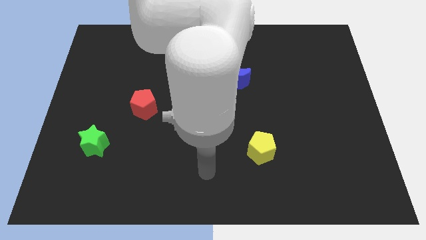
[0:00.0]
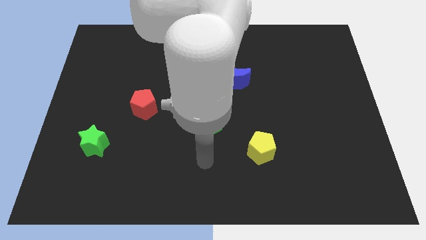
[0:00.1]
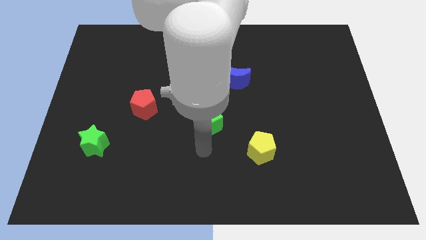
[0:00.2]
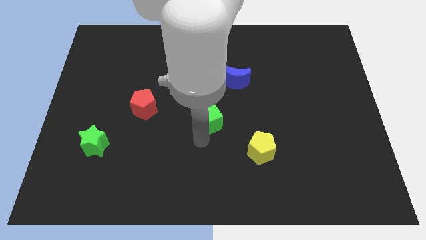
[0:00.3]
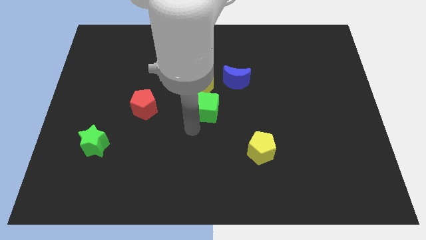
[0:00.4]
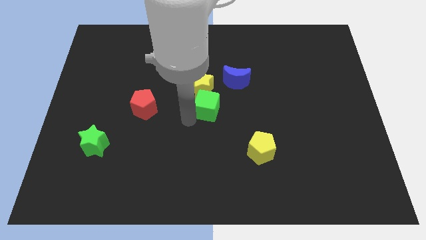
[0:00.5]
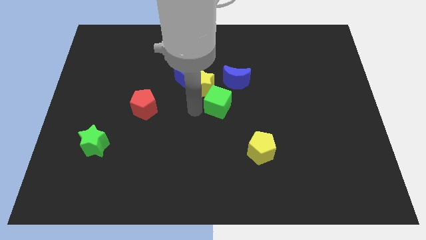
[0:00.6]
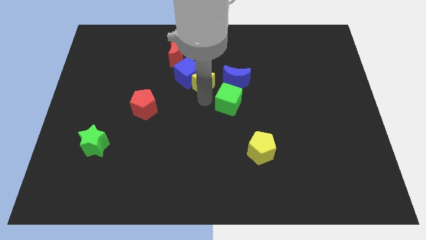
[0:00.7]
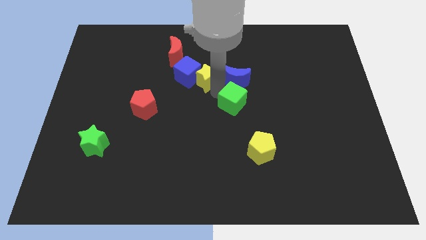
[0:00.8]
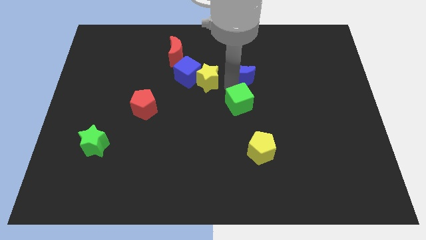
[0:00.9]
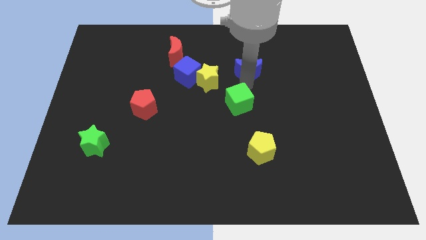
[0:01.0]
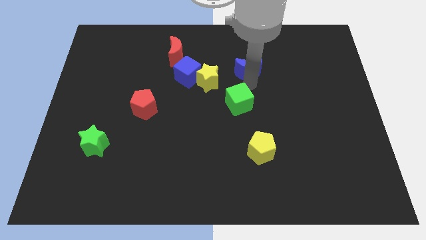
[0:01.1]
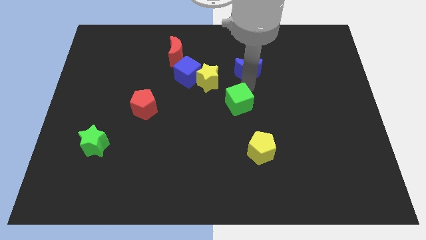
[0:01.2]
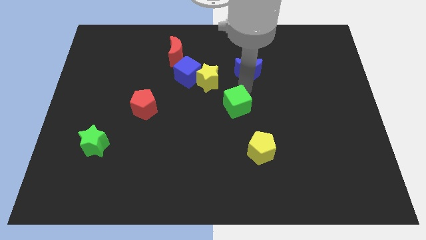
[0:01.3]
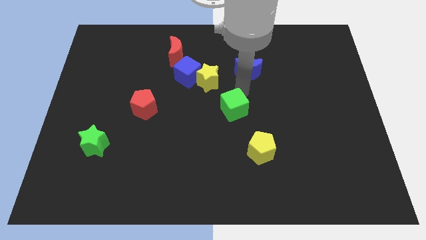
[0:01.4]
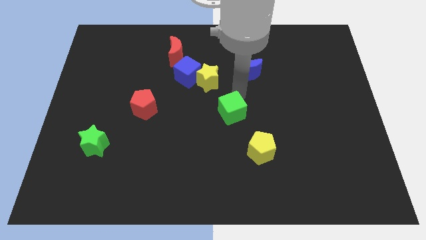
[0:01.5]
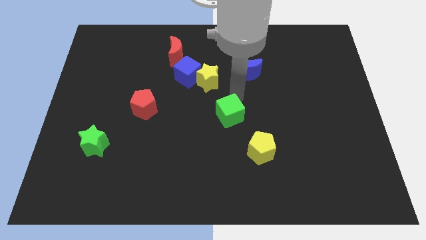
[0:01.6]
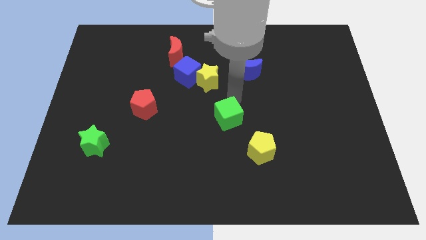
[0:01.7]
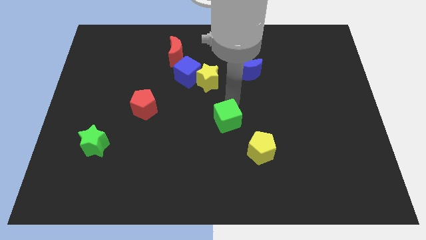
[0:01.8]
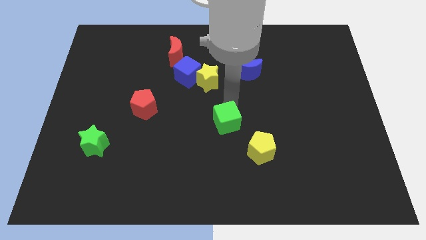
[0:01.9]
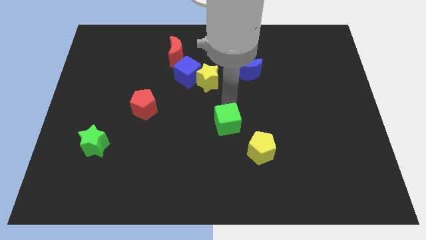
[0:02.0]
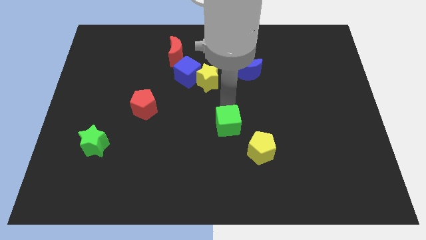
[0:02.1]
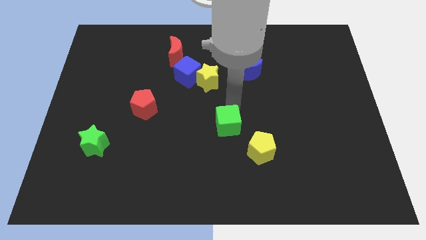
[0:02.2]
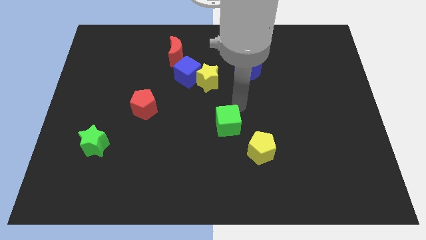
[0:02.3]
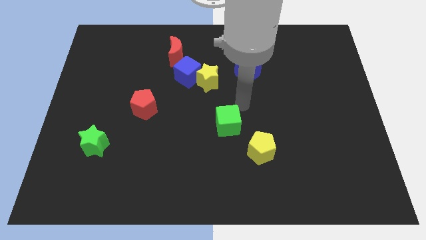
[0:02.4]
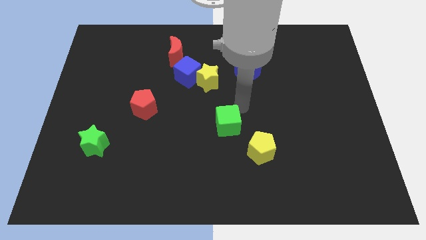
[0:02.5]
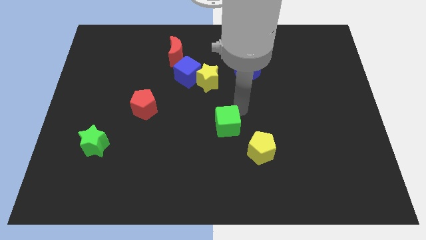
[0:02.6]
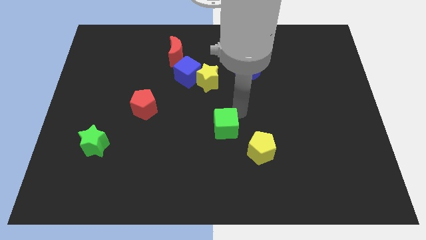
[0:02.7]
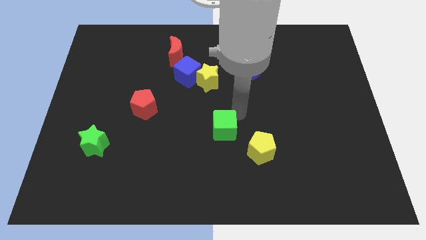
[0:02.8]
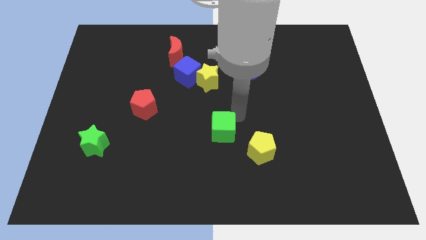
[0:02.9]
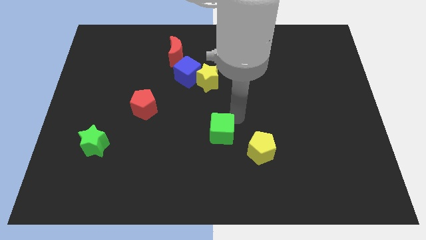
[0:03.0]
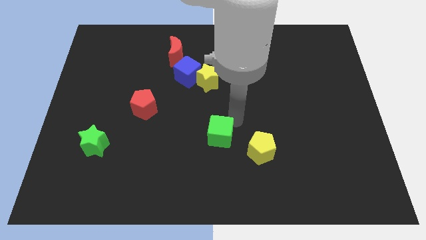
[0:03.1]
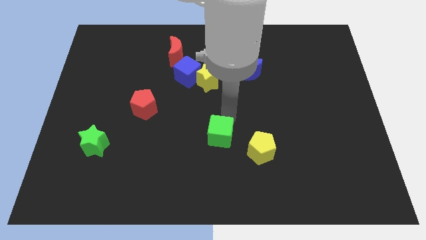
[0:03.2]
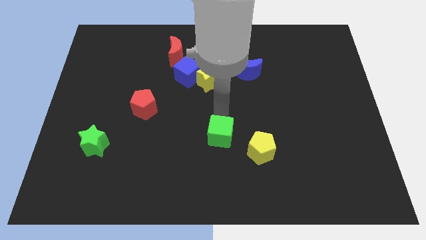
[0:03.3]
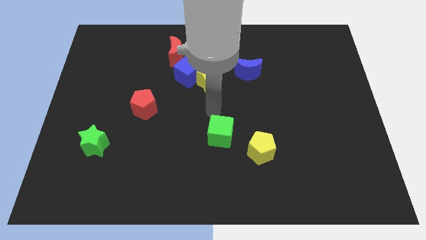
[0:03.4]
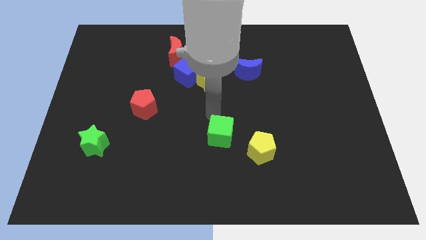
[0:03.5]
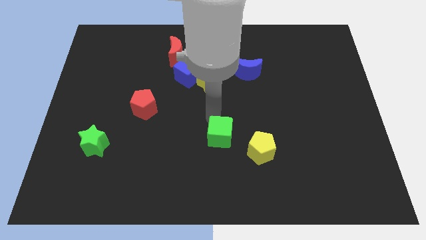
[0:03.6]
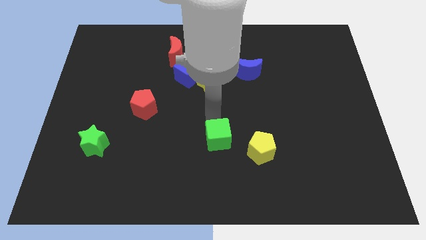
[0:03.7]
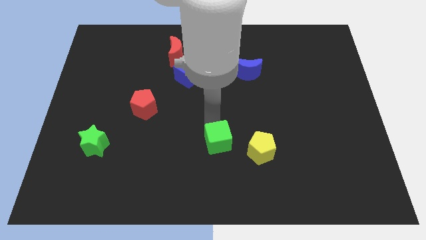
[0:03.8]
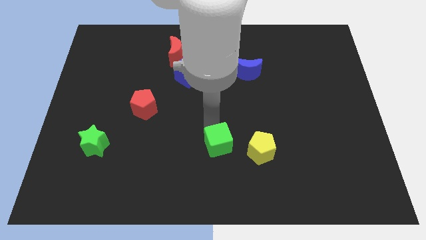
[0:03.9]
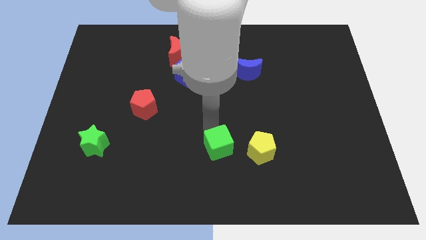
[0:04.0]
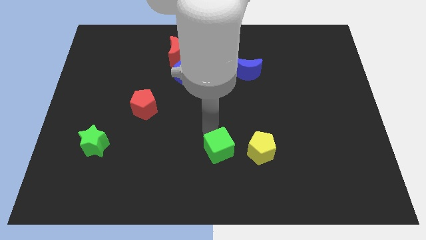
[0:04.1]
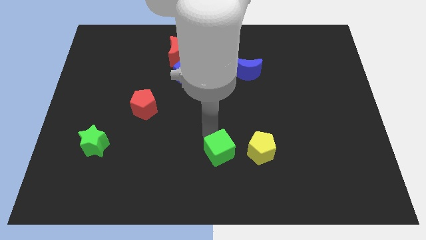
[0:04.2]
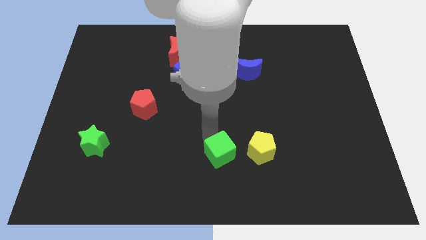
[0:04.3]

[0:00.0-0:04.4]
push the green cube a bit diagonally down and to the right

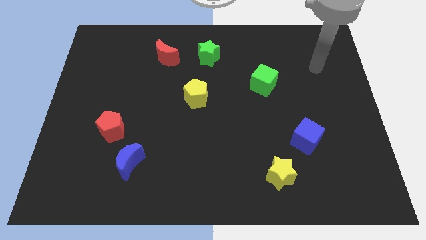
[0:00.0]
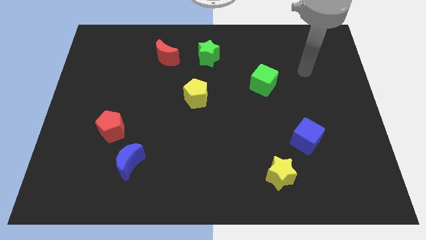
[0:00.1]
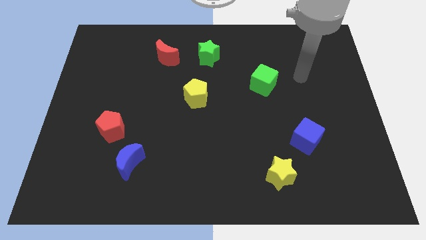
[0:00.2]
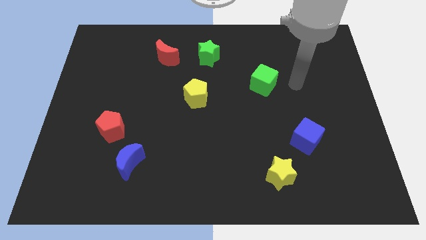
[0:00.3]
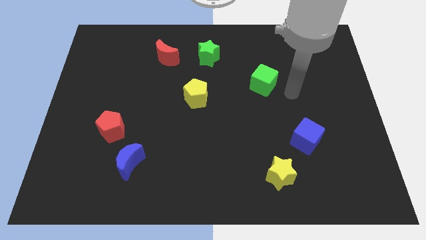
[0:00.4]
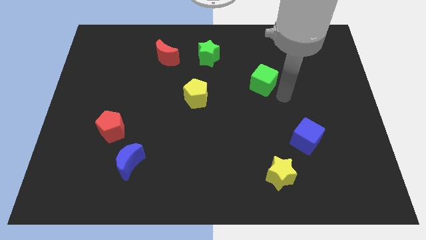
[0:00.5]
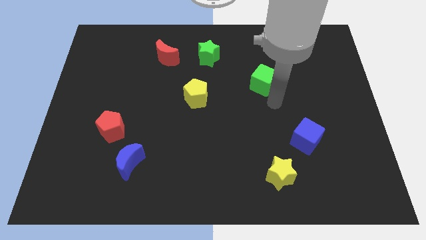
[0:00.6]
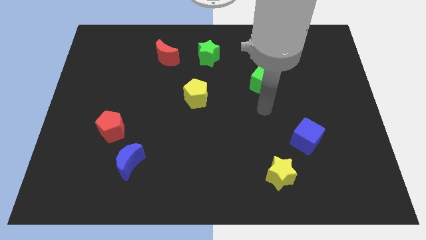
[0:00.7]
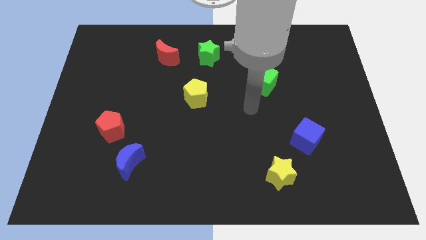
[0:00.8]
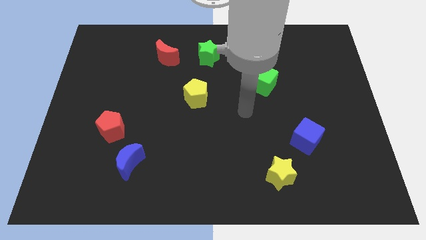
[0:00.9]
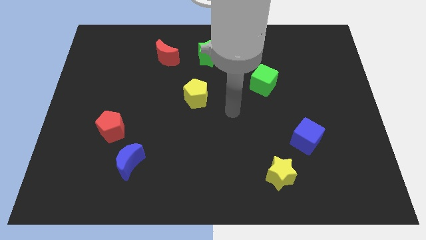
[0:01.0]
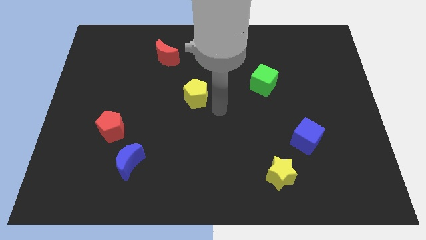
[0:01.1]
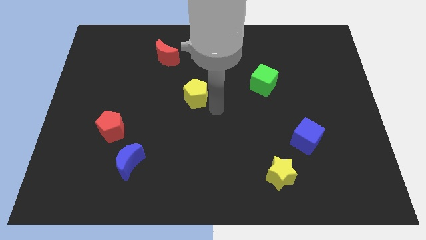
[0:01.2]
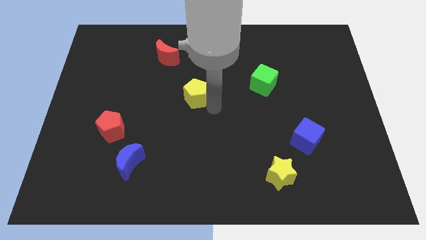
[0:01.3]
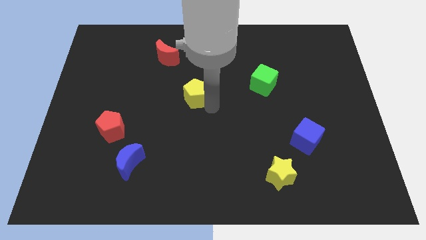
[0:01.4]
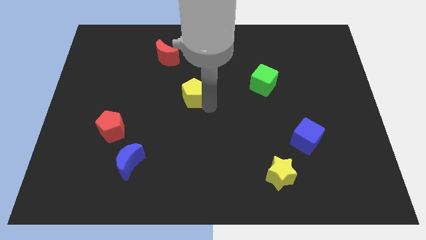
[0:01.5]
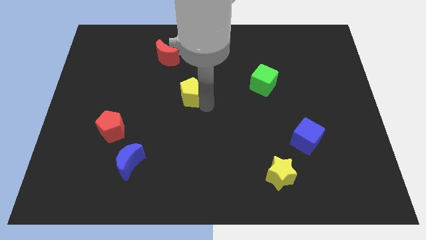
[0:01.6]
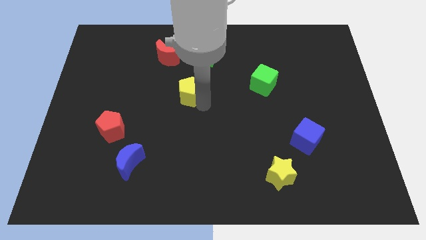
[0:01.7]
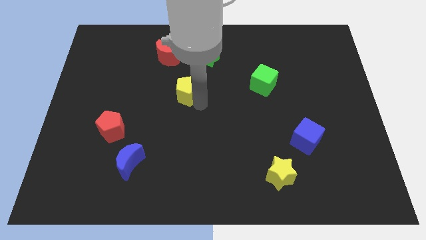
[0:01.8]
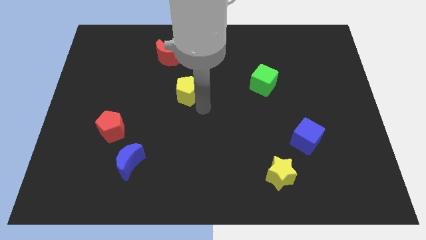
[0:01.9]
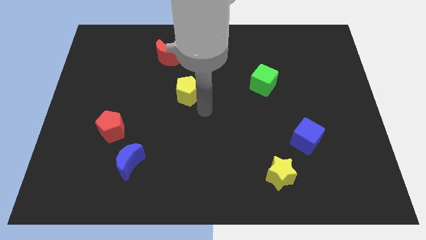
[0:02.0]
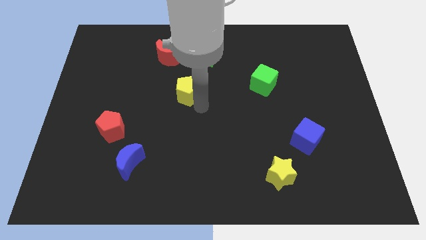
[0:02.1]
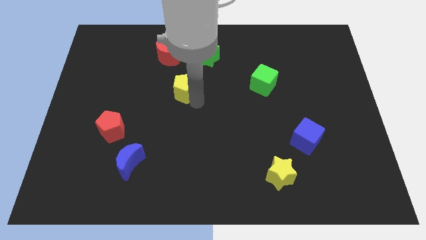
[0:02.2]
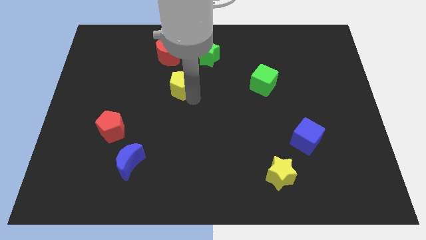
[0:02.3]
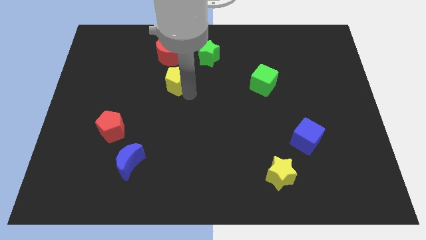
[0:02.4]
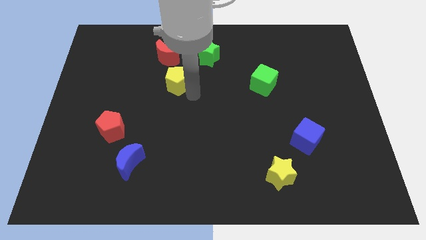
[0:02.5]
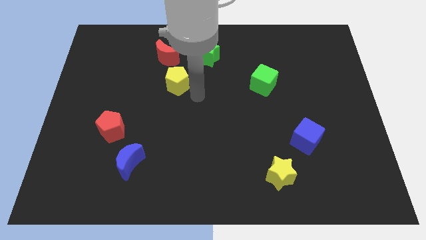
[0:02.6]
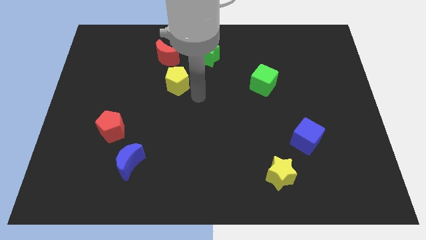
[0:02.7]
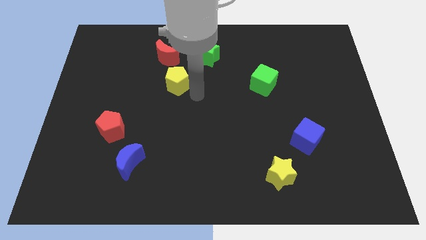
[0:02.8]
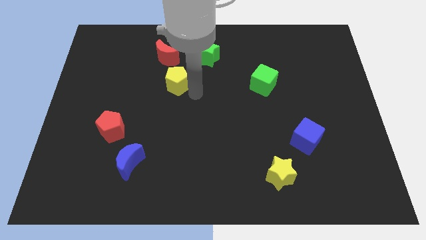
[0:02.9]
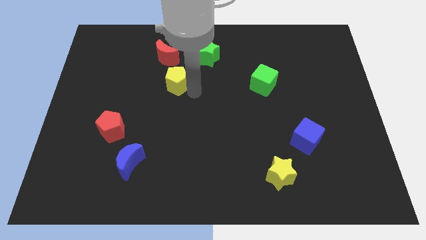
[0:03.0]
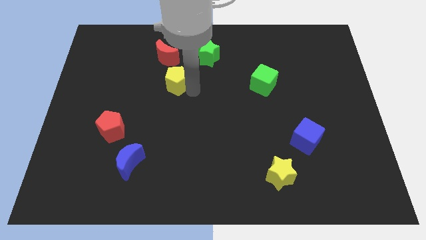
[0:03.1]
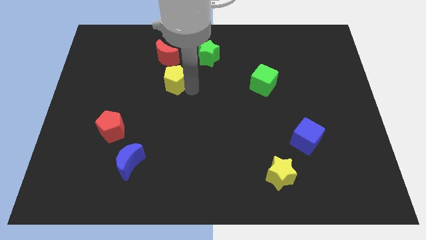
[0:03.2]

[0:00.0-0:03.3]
slide the yellow pentagon somewhat diagonally up and to the left

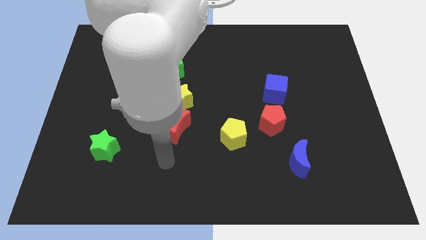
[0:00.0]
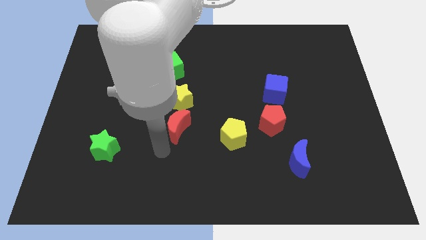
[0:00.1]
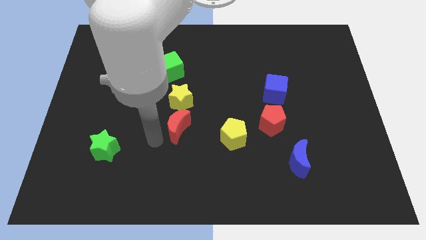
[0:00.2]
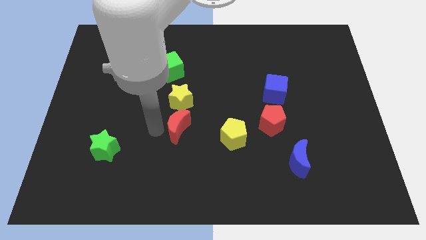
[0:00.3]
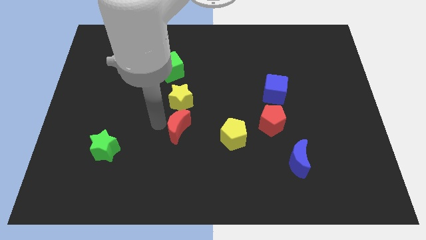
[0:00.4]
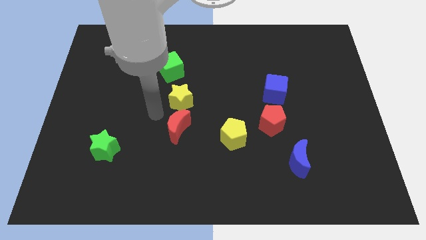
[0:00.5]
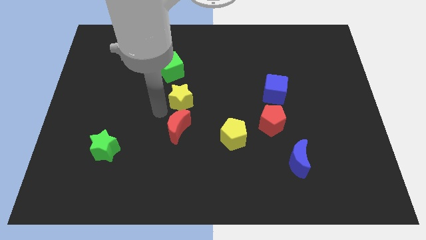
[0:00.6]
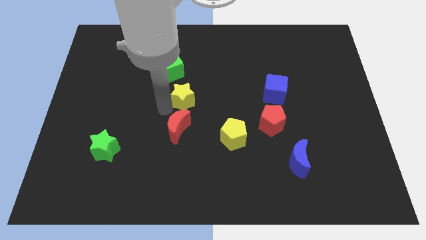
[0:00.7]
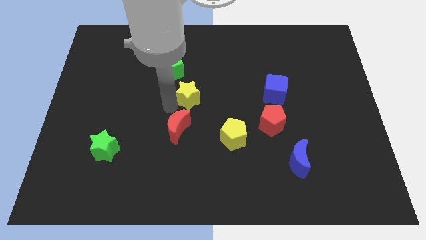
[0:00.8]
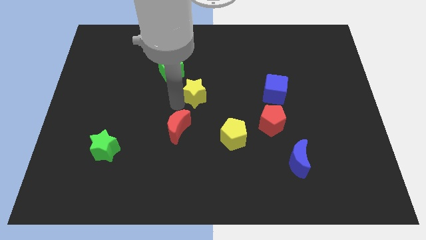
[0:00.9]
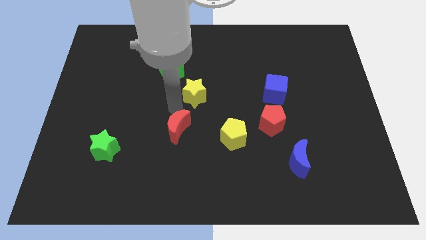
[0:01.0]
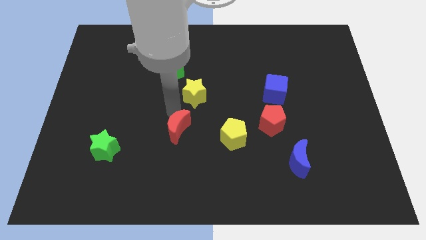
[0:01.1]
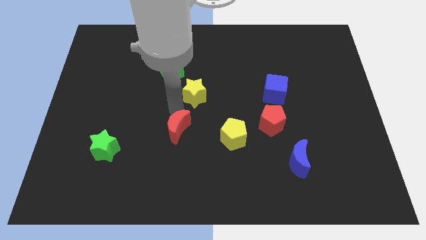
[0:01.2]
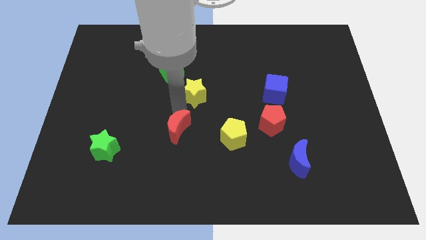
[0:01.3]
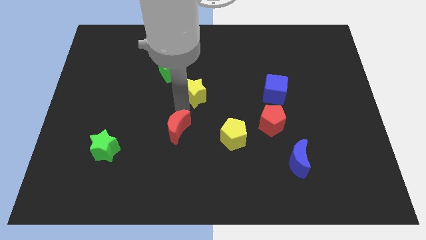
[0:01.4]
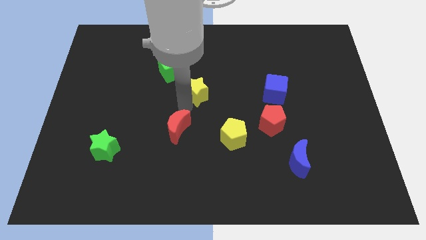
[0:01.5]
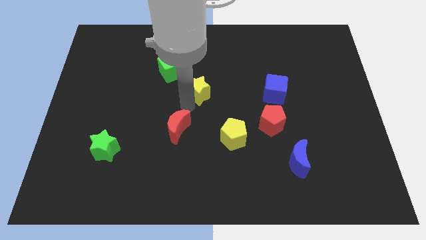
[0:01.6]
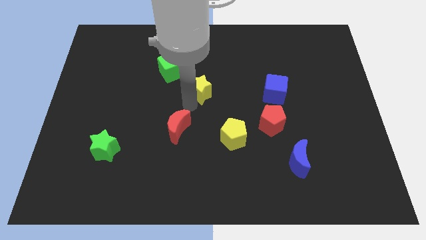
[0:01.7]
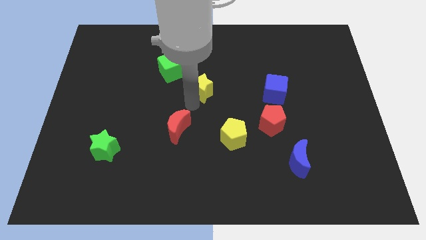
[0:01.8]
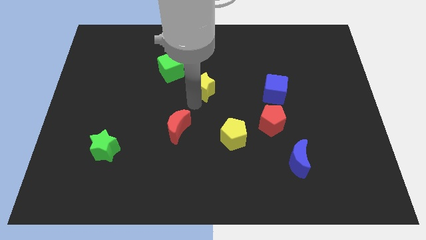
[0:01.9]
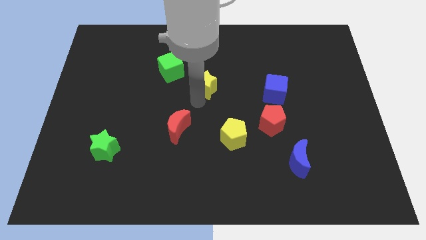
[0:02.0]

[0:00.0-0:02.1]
slide the yellow star up and then to the right a little
